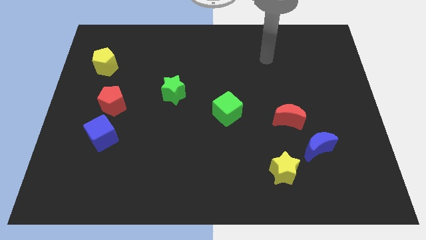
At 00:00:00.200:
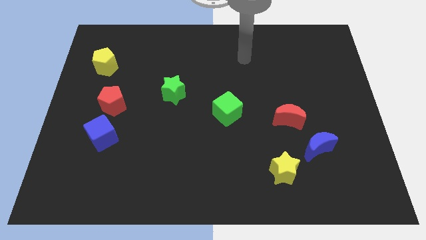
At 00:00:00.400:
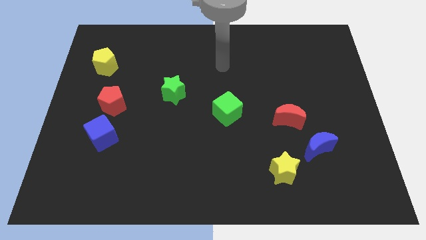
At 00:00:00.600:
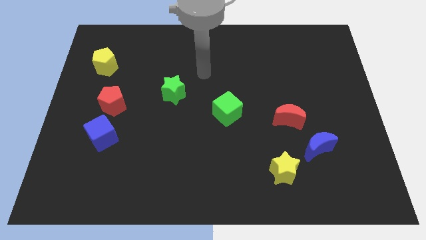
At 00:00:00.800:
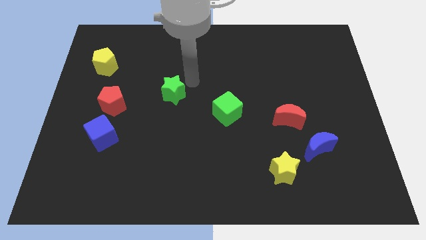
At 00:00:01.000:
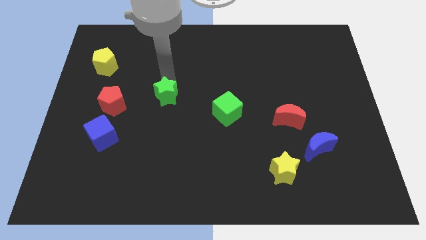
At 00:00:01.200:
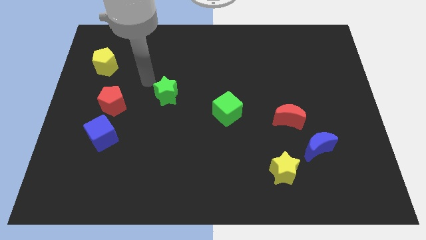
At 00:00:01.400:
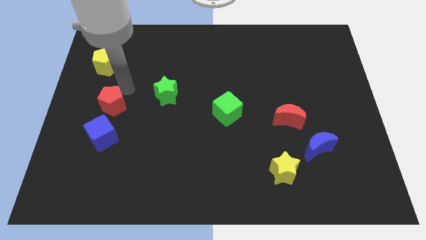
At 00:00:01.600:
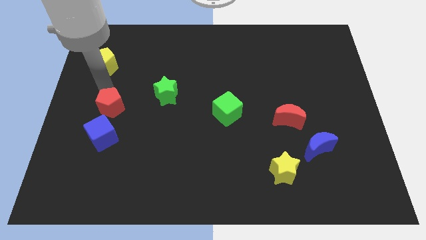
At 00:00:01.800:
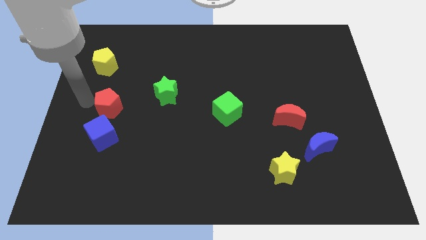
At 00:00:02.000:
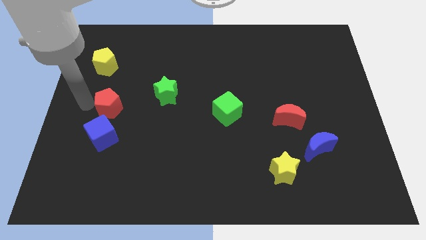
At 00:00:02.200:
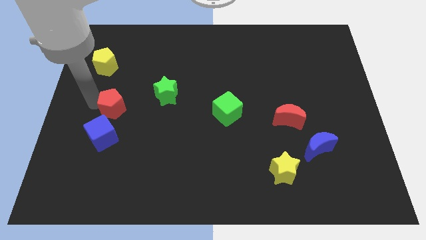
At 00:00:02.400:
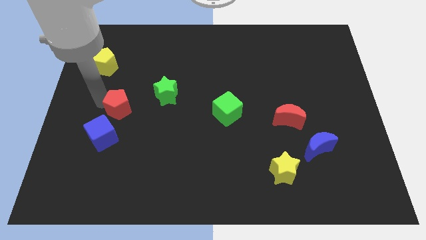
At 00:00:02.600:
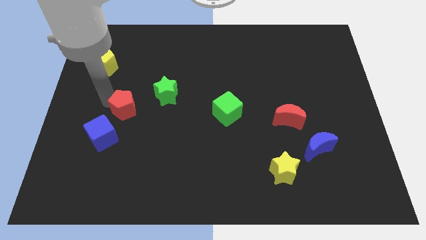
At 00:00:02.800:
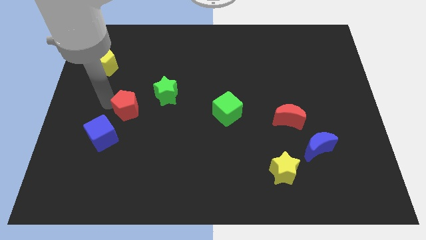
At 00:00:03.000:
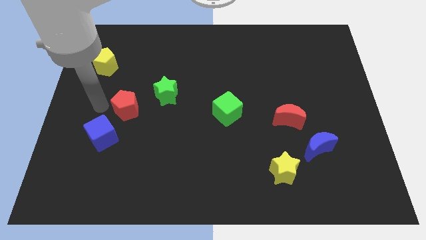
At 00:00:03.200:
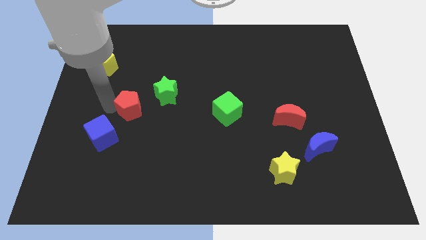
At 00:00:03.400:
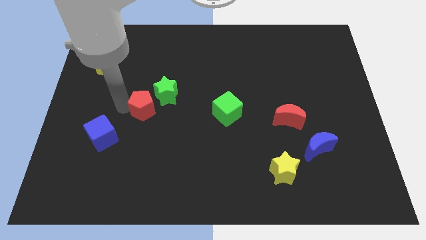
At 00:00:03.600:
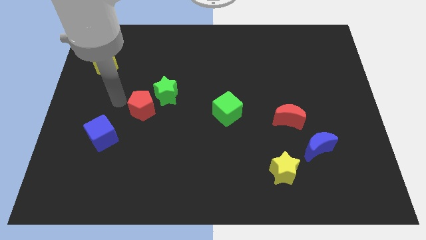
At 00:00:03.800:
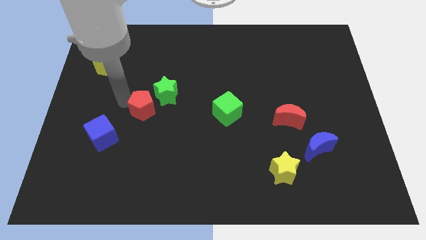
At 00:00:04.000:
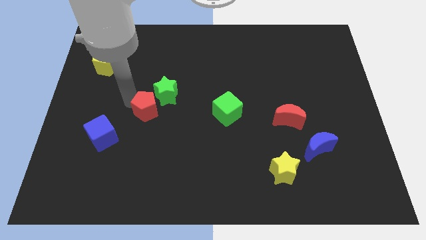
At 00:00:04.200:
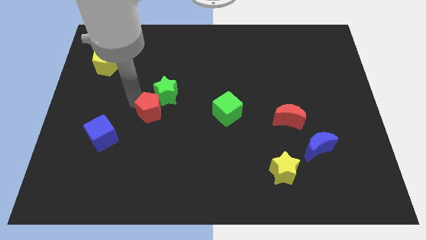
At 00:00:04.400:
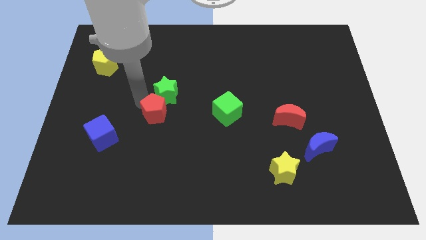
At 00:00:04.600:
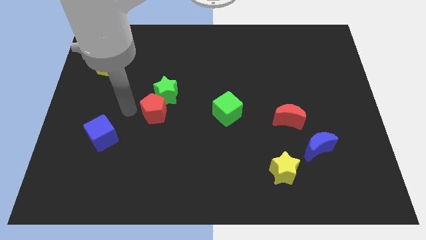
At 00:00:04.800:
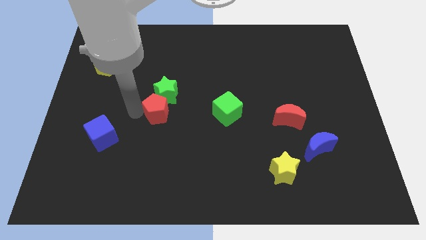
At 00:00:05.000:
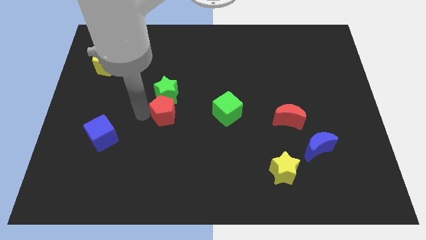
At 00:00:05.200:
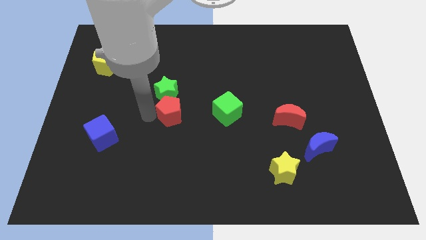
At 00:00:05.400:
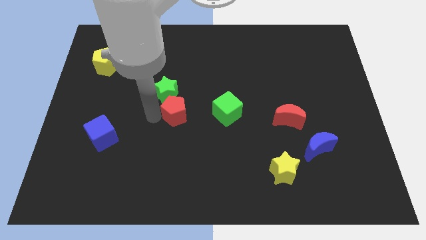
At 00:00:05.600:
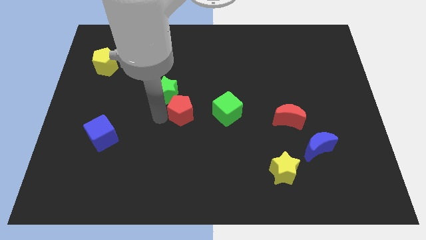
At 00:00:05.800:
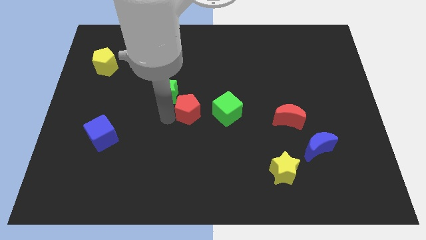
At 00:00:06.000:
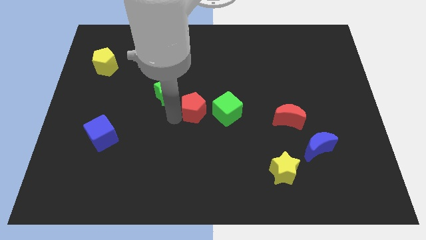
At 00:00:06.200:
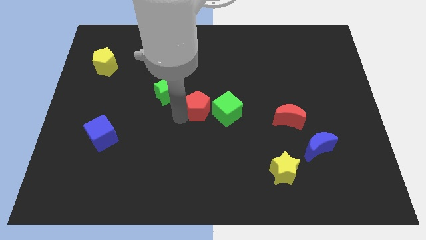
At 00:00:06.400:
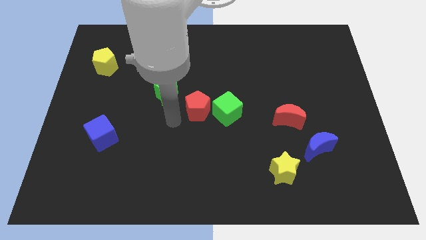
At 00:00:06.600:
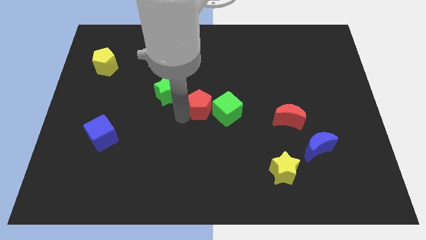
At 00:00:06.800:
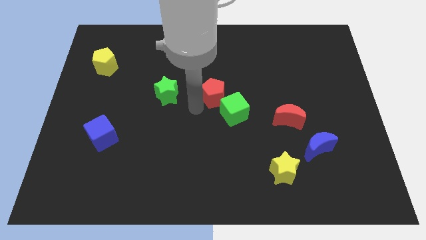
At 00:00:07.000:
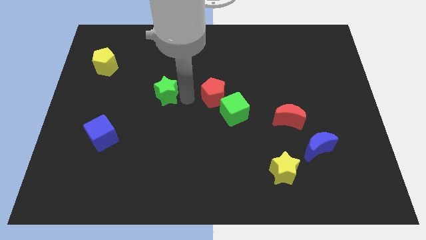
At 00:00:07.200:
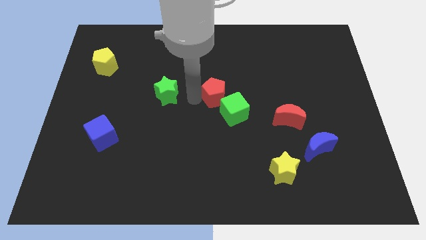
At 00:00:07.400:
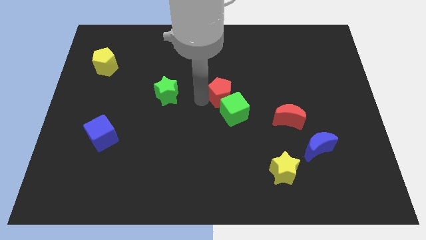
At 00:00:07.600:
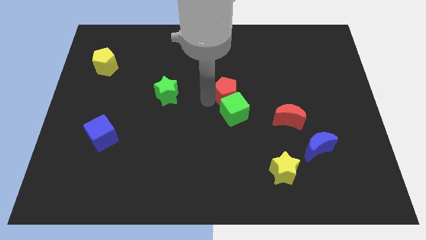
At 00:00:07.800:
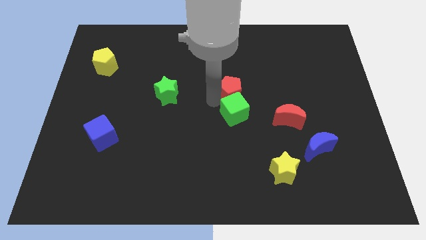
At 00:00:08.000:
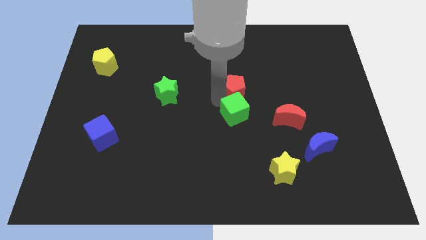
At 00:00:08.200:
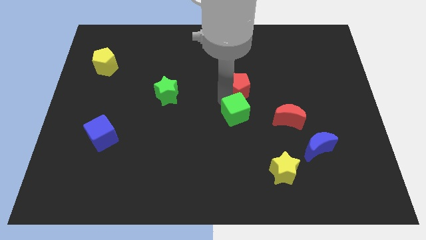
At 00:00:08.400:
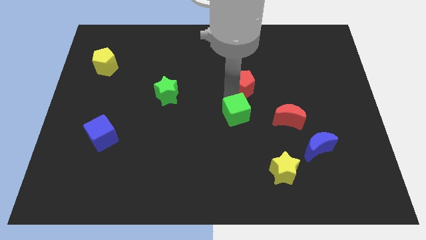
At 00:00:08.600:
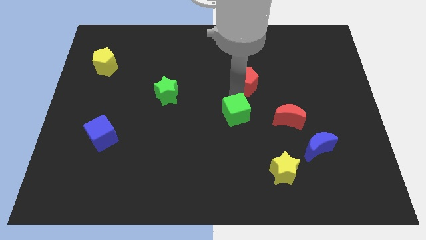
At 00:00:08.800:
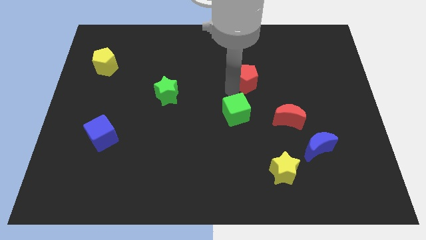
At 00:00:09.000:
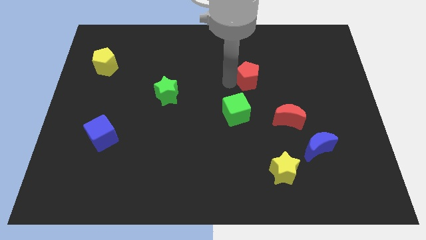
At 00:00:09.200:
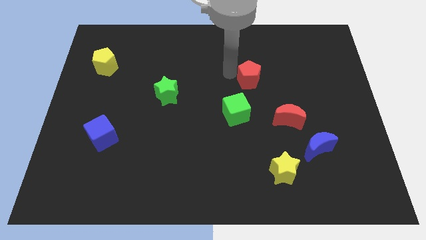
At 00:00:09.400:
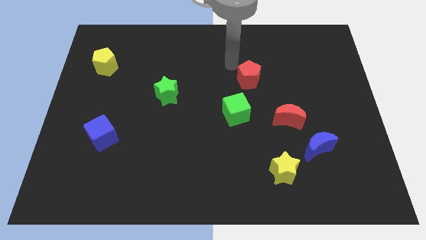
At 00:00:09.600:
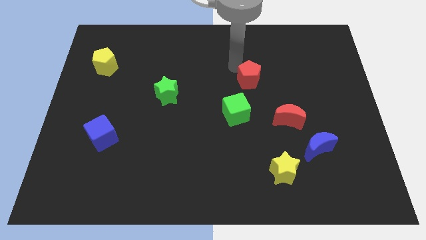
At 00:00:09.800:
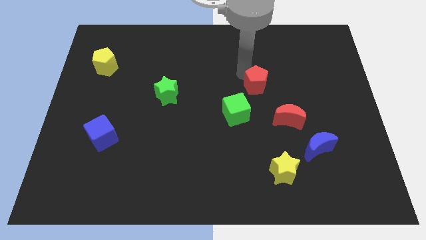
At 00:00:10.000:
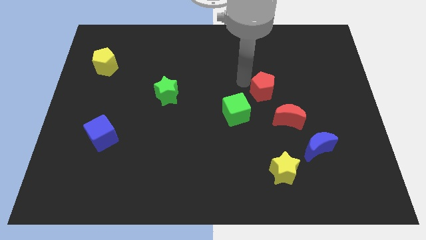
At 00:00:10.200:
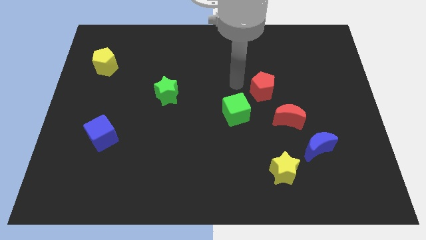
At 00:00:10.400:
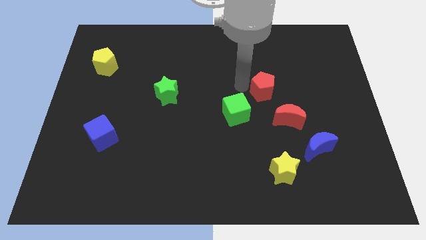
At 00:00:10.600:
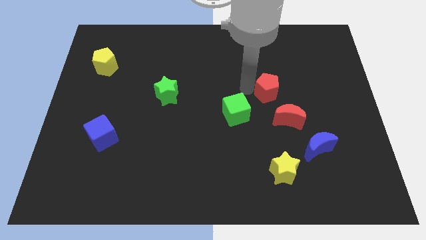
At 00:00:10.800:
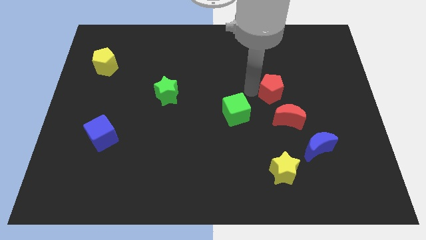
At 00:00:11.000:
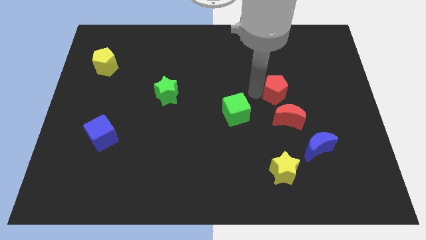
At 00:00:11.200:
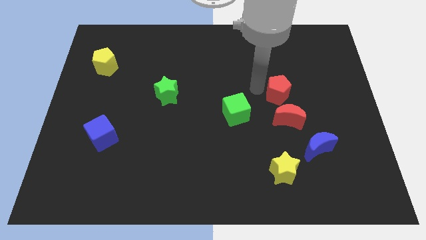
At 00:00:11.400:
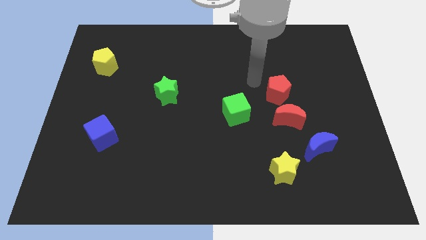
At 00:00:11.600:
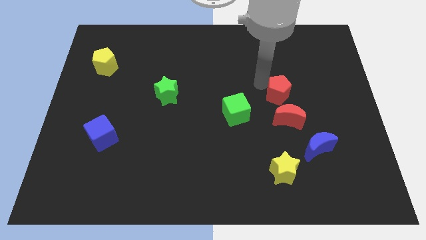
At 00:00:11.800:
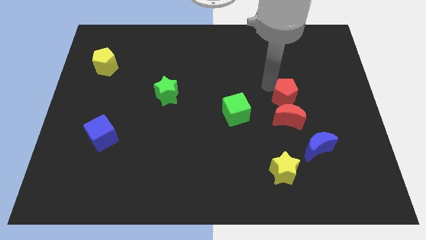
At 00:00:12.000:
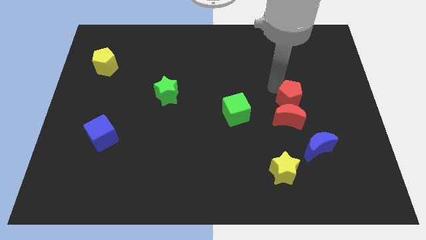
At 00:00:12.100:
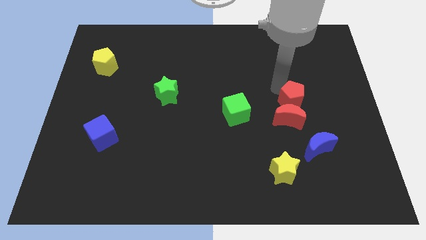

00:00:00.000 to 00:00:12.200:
put the red pentagon above the blue moon

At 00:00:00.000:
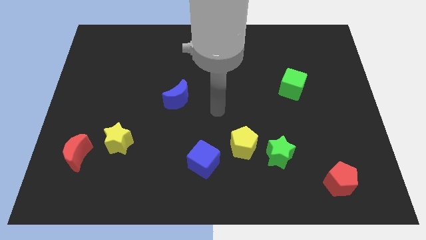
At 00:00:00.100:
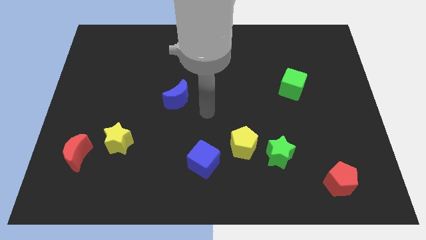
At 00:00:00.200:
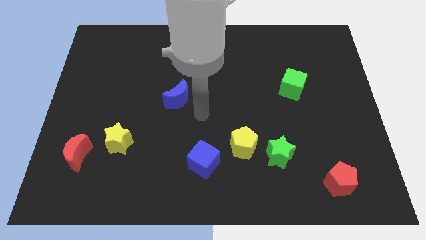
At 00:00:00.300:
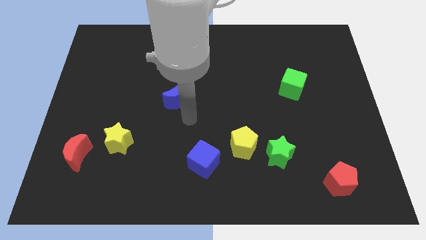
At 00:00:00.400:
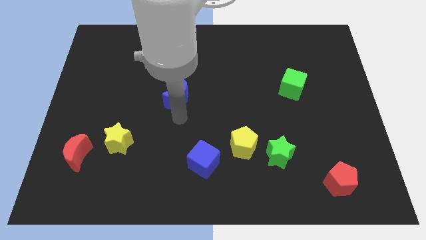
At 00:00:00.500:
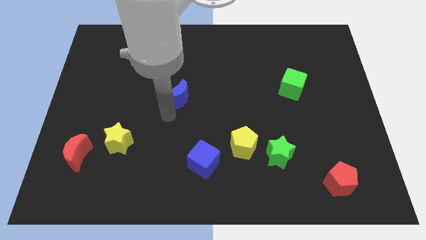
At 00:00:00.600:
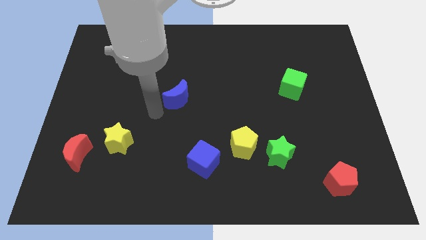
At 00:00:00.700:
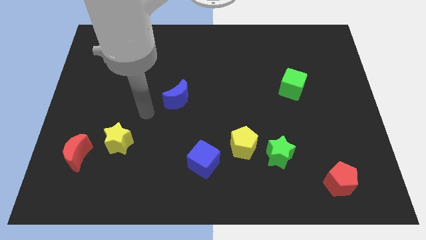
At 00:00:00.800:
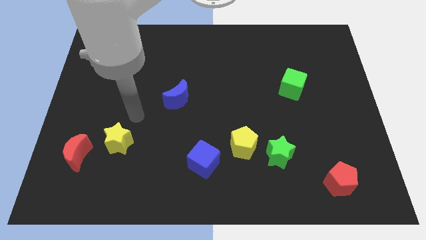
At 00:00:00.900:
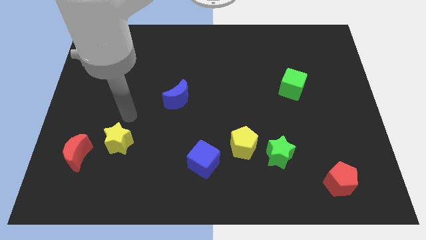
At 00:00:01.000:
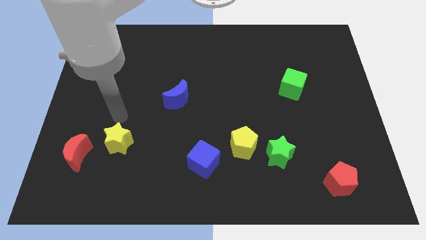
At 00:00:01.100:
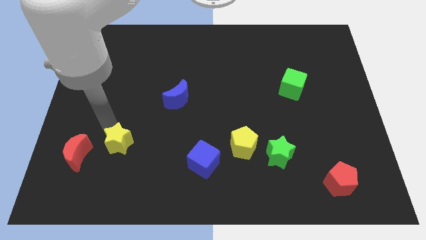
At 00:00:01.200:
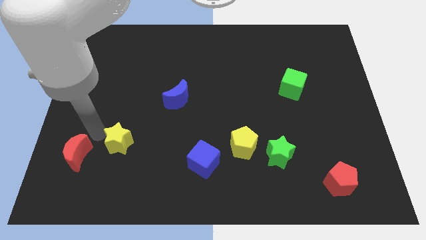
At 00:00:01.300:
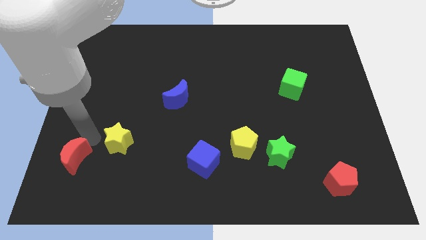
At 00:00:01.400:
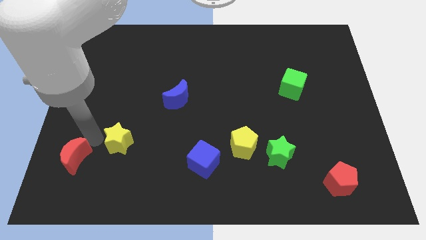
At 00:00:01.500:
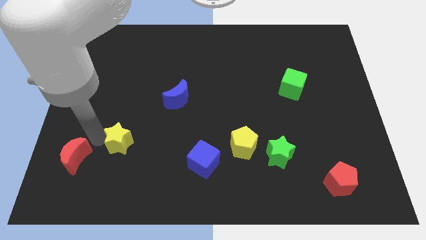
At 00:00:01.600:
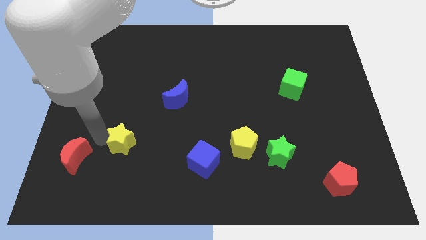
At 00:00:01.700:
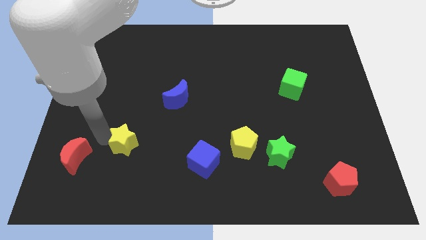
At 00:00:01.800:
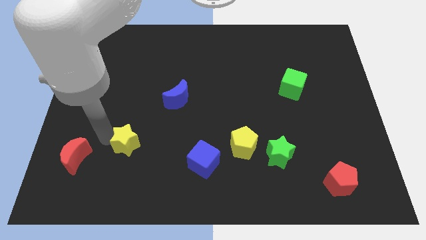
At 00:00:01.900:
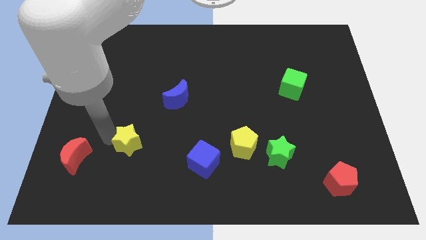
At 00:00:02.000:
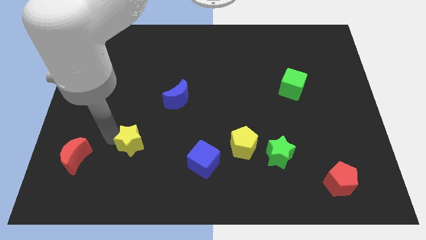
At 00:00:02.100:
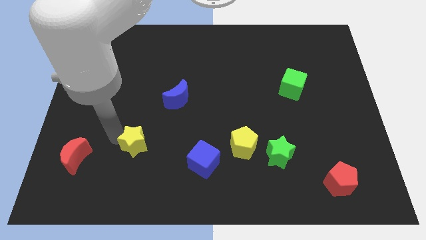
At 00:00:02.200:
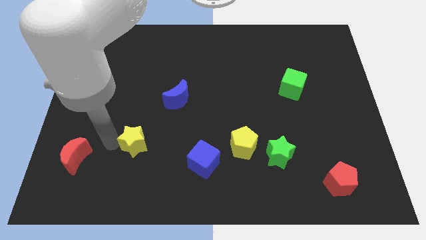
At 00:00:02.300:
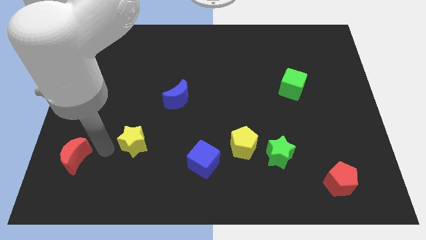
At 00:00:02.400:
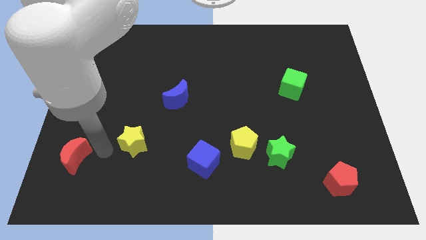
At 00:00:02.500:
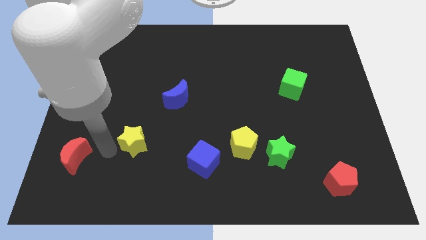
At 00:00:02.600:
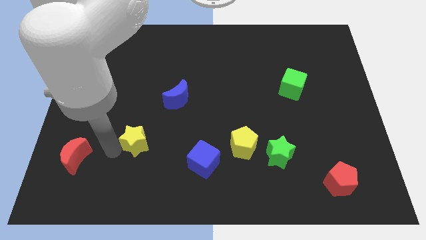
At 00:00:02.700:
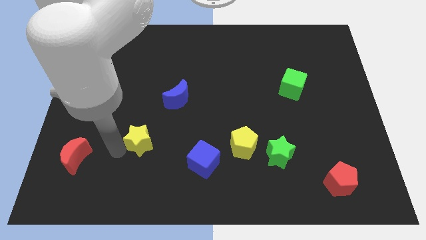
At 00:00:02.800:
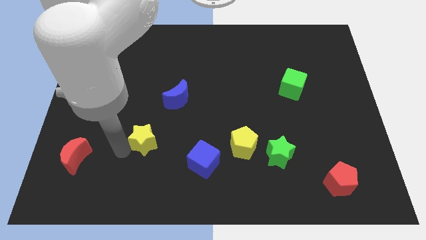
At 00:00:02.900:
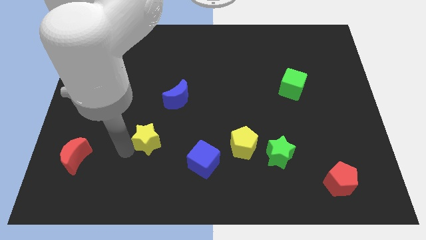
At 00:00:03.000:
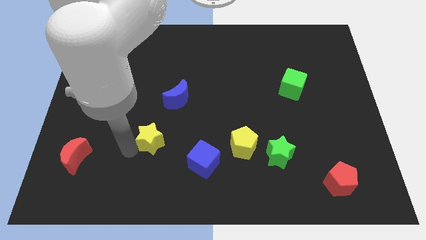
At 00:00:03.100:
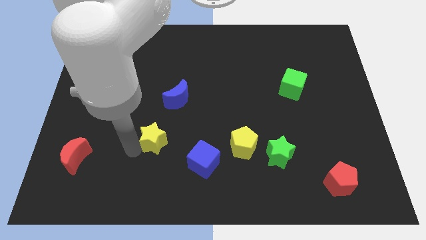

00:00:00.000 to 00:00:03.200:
put the yellow star below the blue moon
